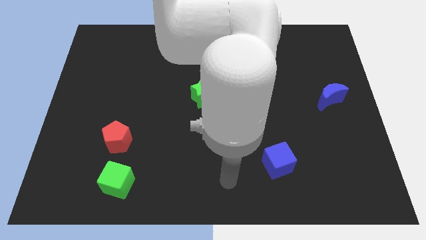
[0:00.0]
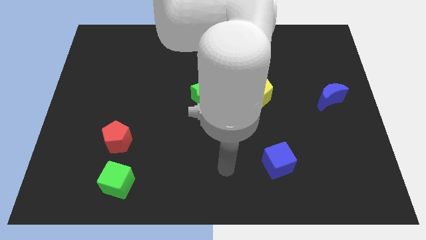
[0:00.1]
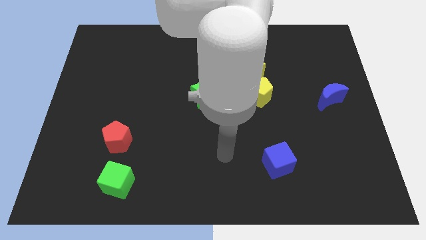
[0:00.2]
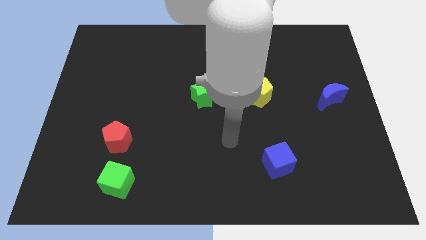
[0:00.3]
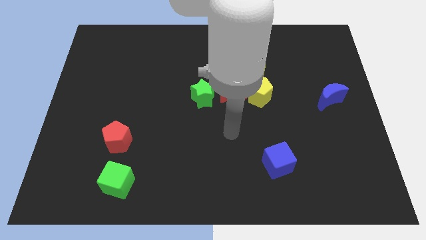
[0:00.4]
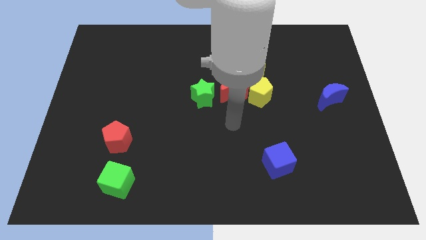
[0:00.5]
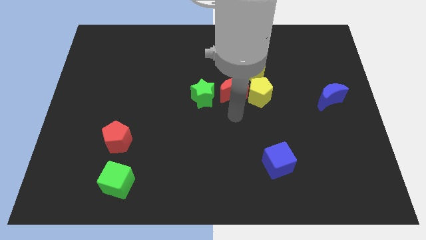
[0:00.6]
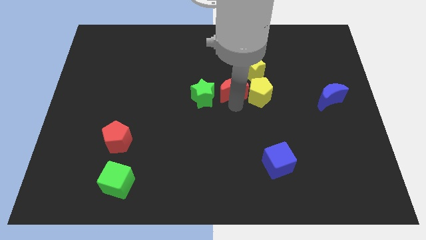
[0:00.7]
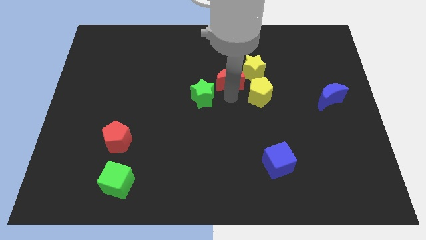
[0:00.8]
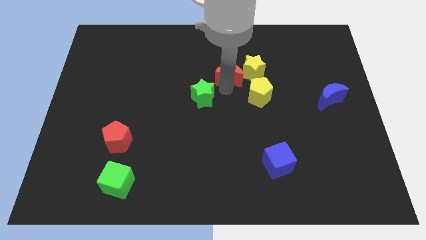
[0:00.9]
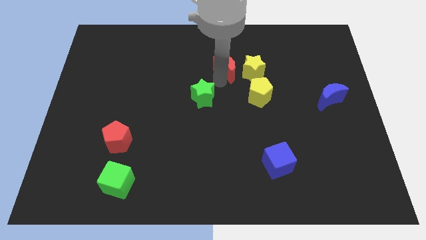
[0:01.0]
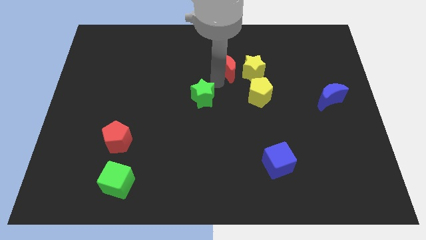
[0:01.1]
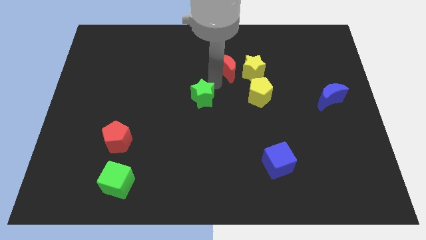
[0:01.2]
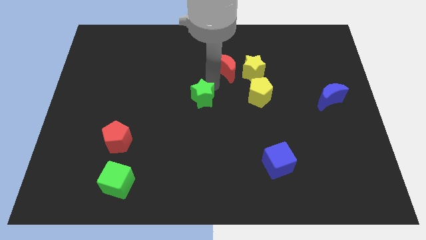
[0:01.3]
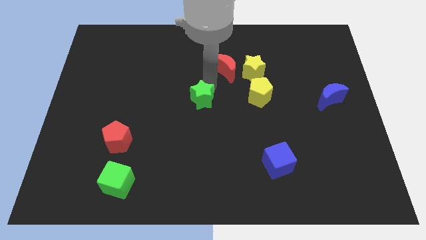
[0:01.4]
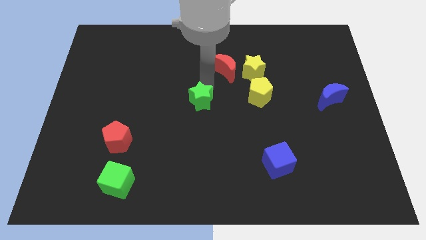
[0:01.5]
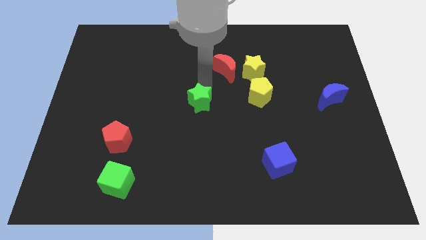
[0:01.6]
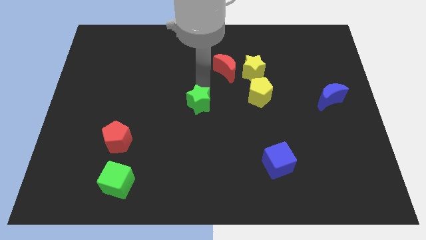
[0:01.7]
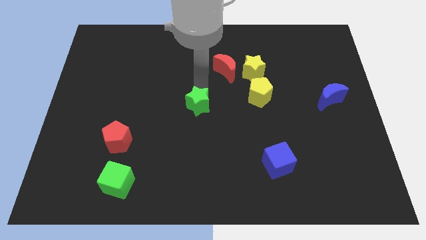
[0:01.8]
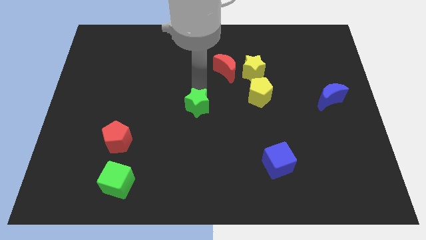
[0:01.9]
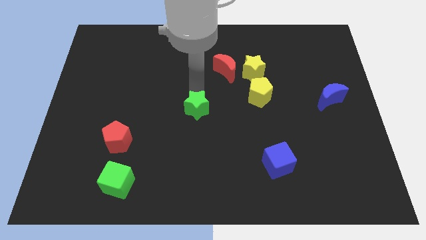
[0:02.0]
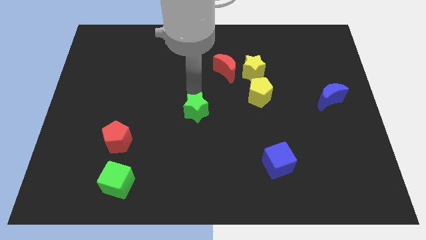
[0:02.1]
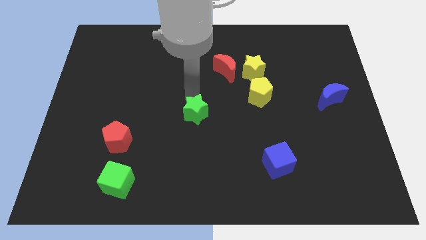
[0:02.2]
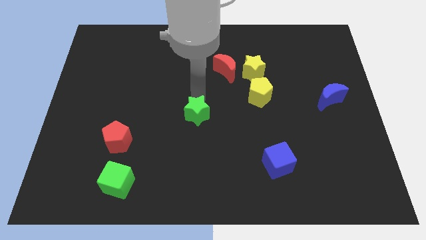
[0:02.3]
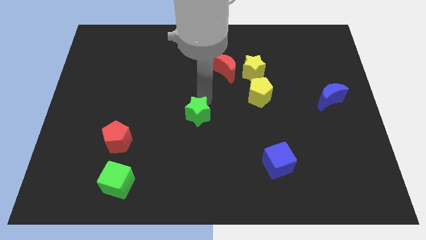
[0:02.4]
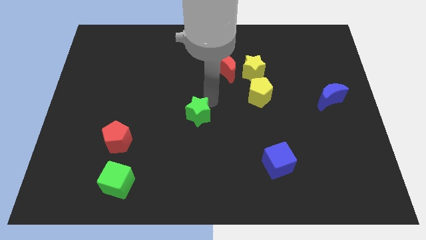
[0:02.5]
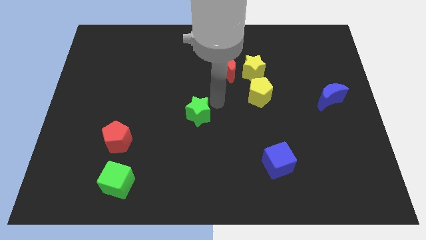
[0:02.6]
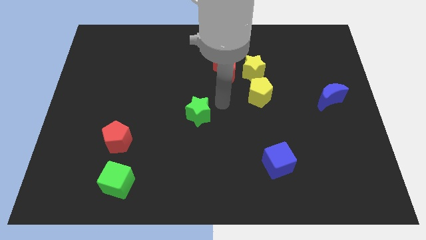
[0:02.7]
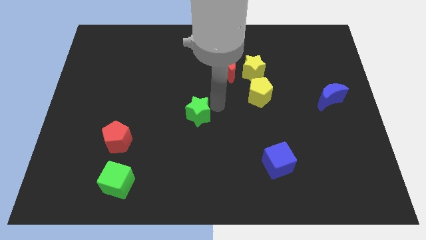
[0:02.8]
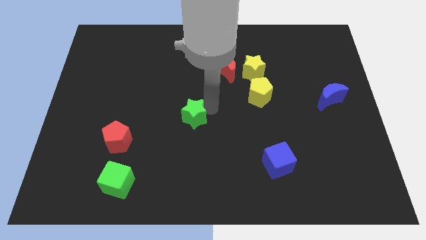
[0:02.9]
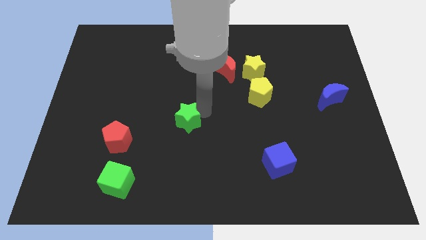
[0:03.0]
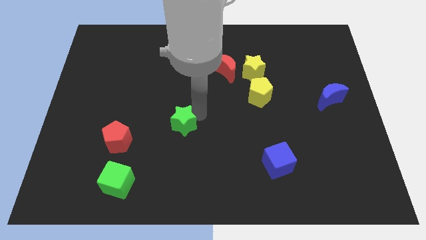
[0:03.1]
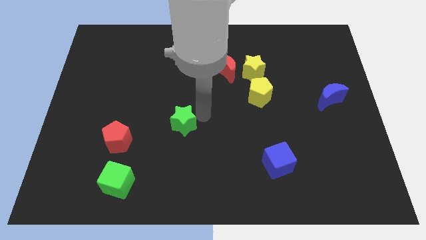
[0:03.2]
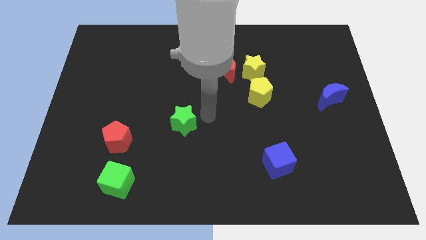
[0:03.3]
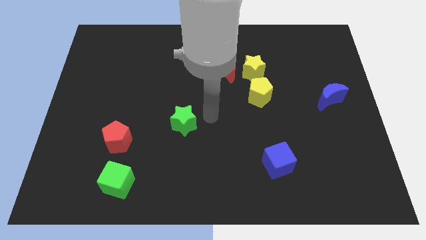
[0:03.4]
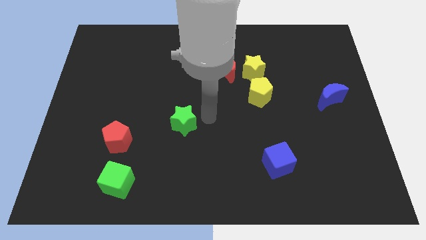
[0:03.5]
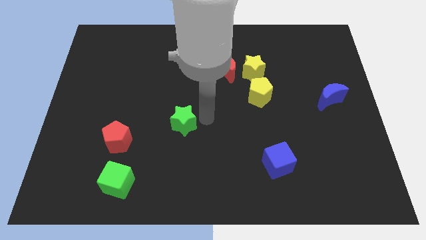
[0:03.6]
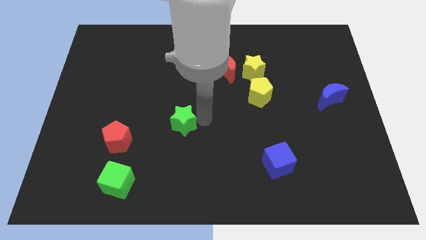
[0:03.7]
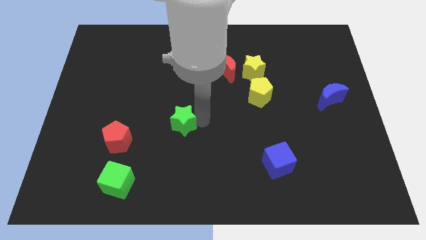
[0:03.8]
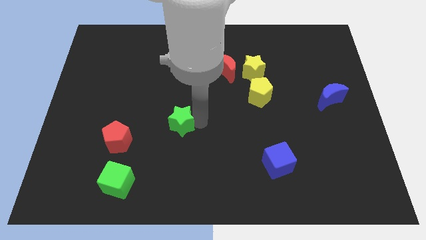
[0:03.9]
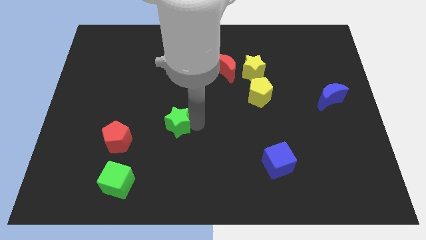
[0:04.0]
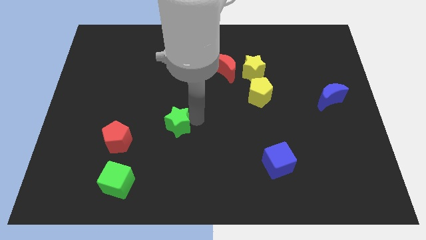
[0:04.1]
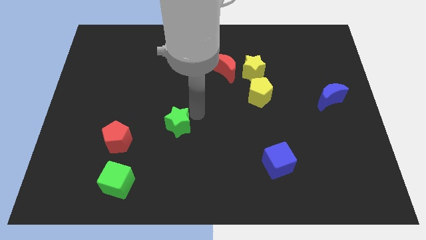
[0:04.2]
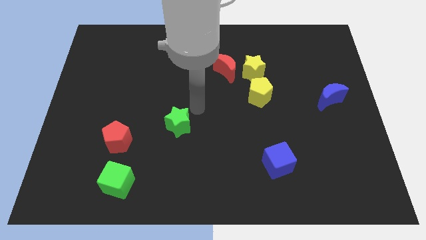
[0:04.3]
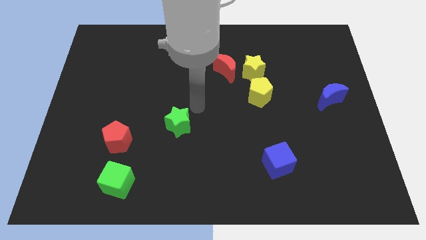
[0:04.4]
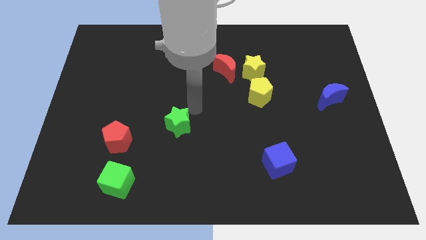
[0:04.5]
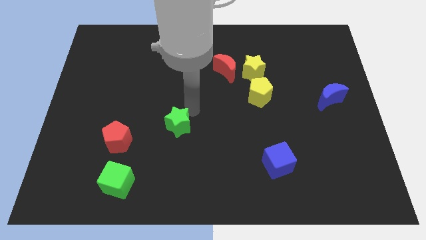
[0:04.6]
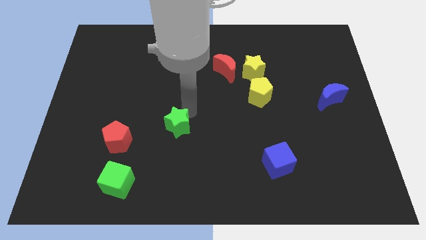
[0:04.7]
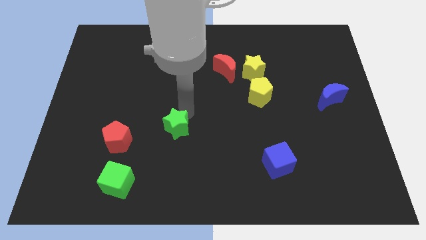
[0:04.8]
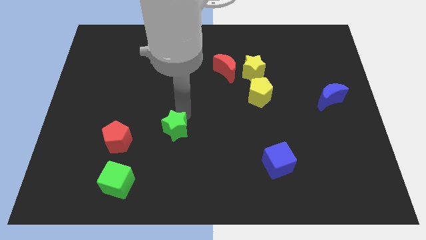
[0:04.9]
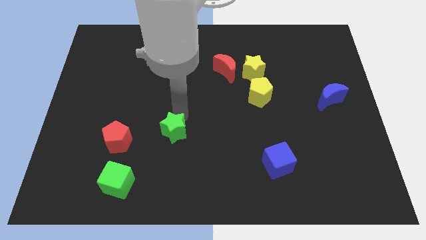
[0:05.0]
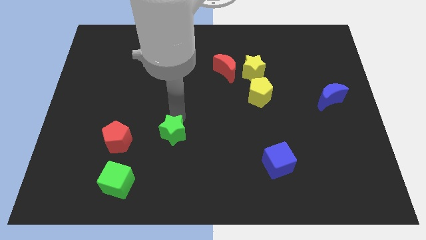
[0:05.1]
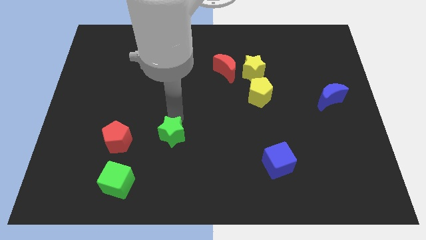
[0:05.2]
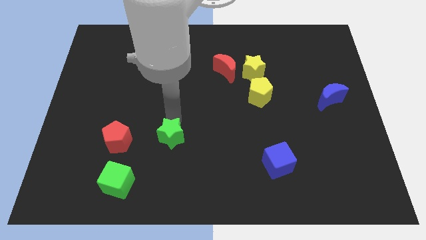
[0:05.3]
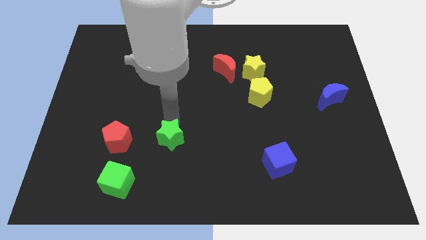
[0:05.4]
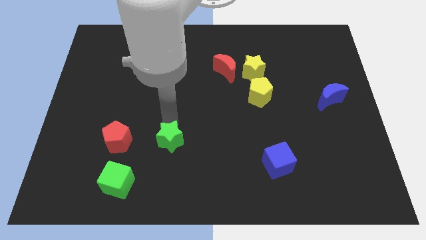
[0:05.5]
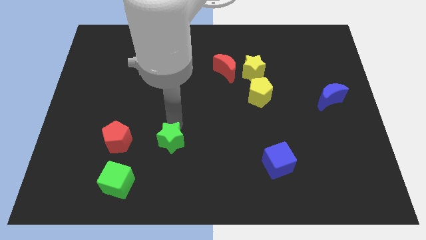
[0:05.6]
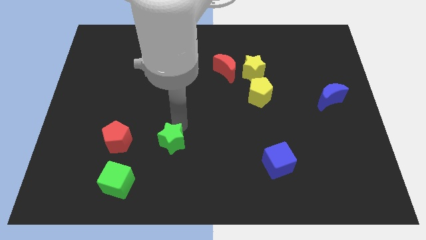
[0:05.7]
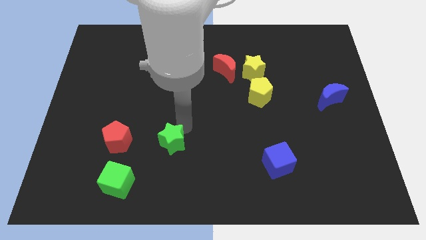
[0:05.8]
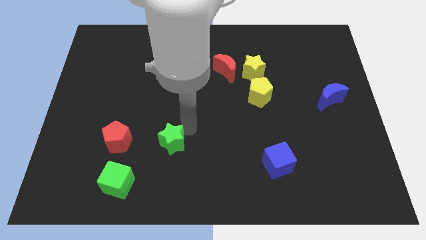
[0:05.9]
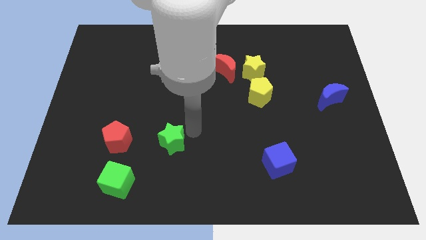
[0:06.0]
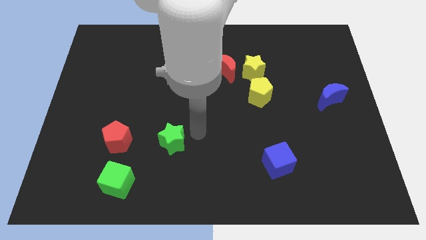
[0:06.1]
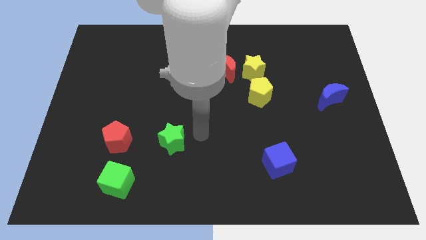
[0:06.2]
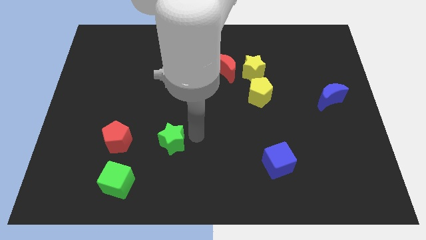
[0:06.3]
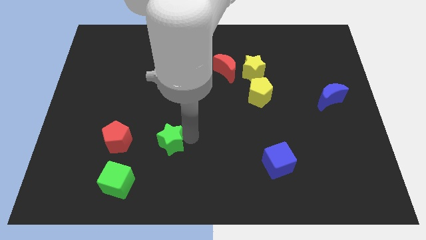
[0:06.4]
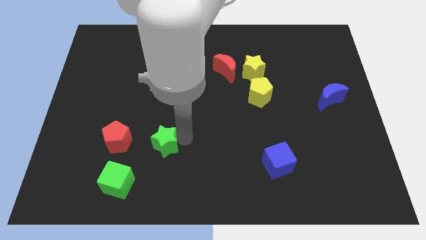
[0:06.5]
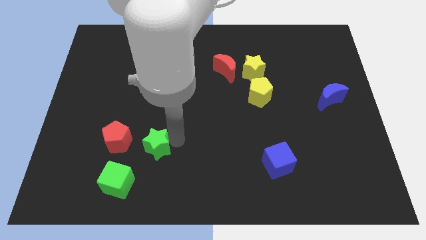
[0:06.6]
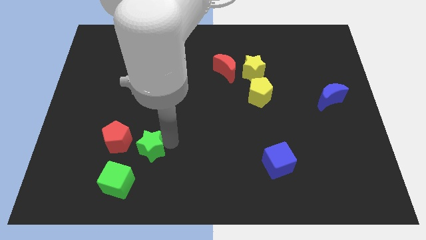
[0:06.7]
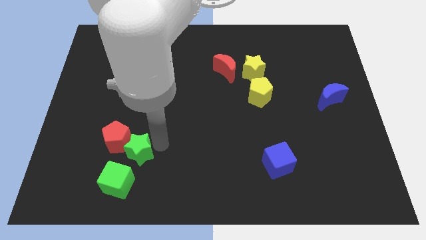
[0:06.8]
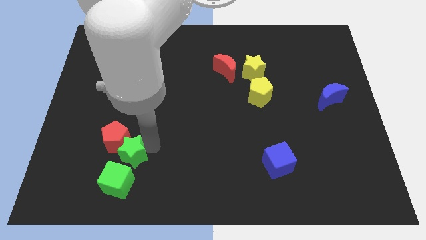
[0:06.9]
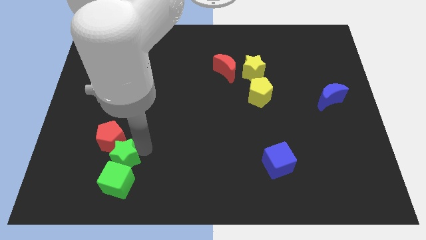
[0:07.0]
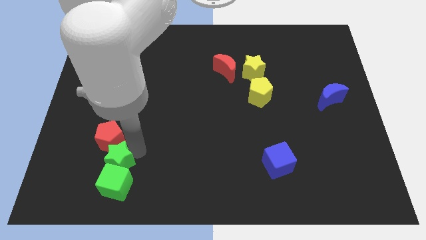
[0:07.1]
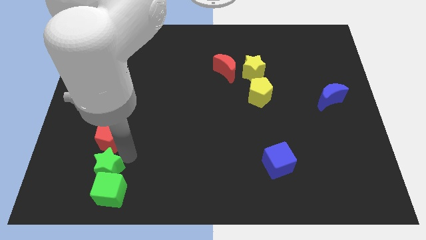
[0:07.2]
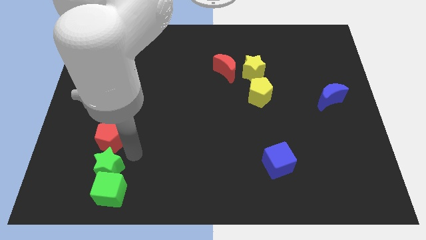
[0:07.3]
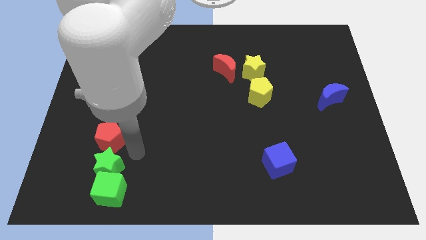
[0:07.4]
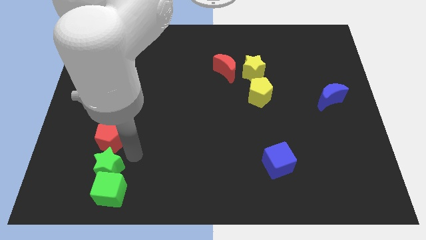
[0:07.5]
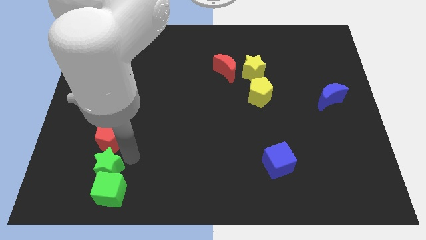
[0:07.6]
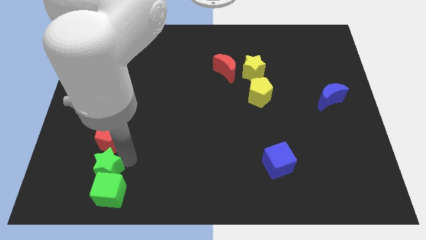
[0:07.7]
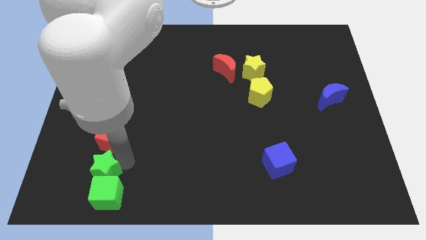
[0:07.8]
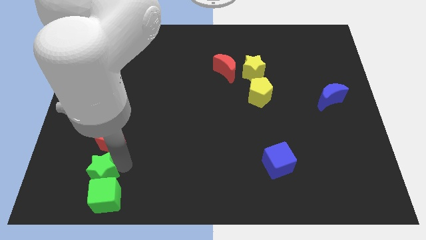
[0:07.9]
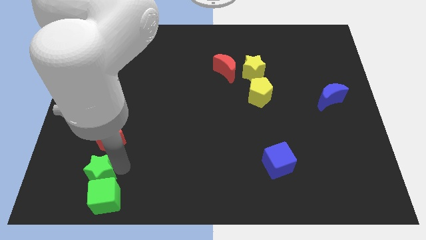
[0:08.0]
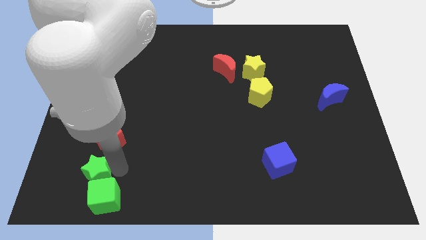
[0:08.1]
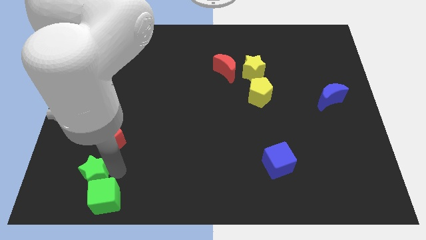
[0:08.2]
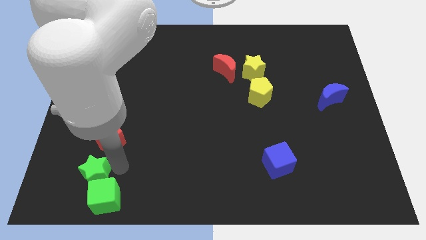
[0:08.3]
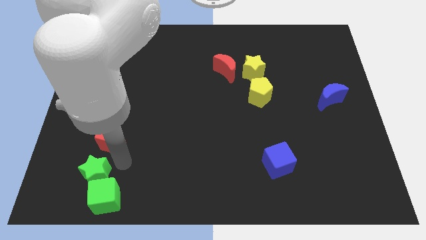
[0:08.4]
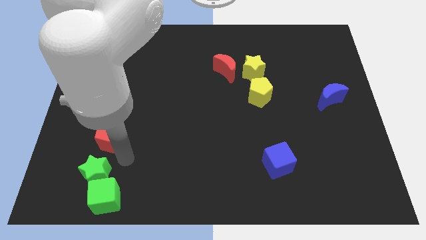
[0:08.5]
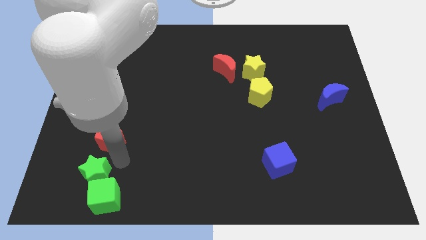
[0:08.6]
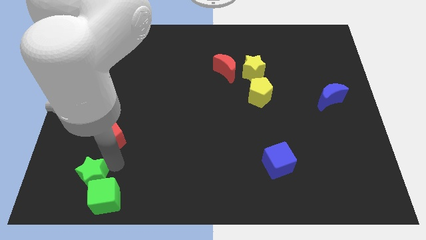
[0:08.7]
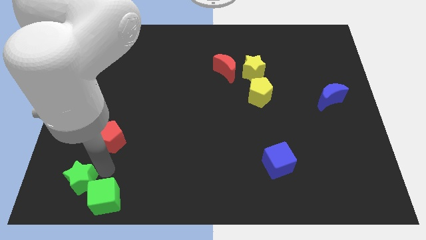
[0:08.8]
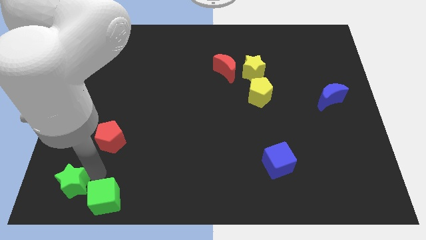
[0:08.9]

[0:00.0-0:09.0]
put the green star to the bottom left
